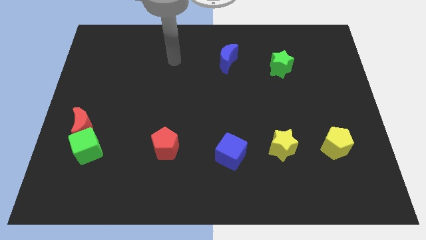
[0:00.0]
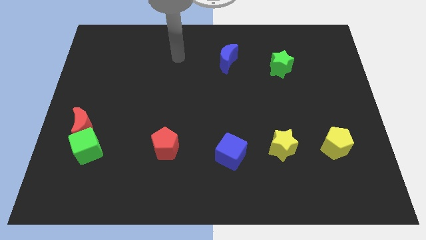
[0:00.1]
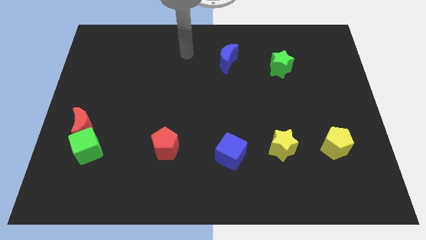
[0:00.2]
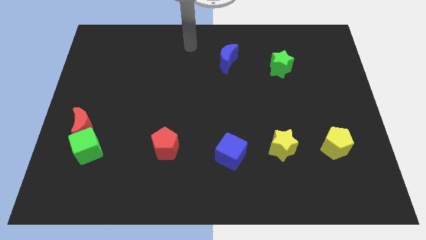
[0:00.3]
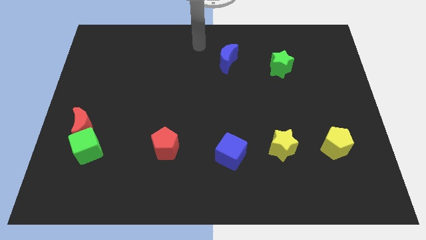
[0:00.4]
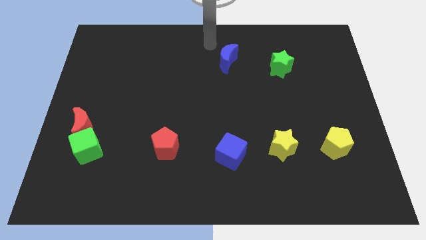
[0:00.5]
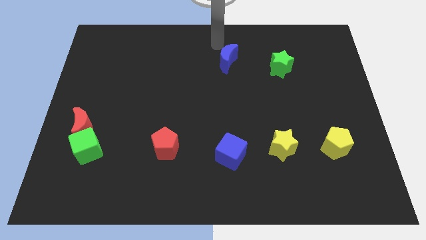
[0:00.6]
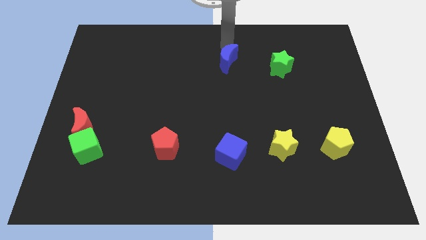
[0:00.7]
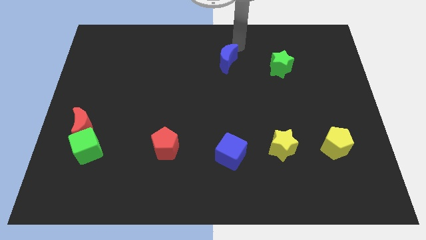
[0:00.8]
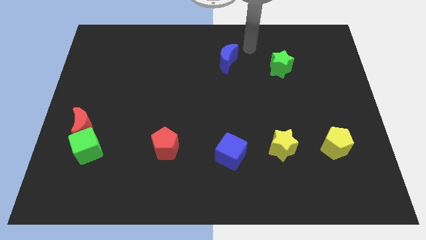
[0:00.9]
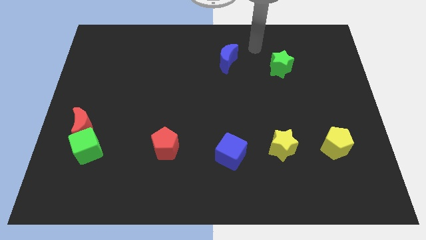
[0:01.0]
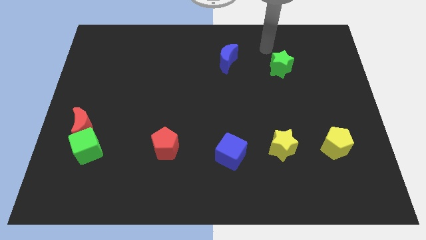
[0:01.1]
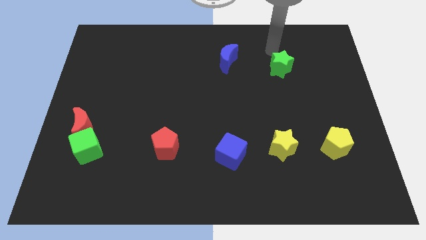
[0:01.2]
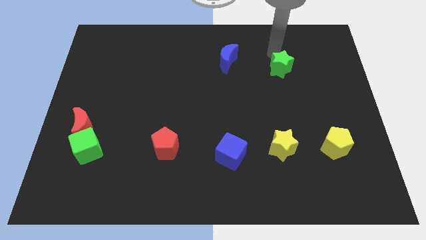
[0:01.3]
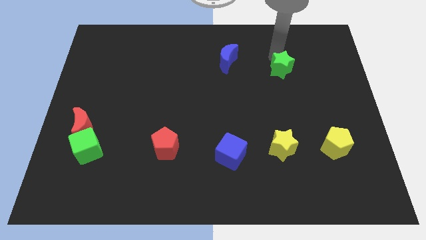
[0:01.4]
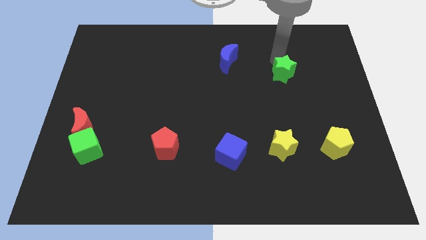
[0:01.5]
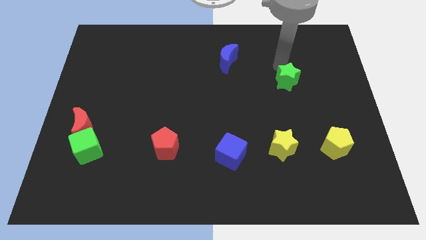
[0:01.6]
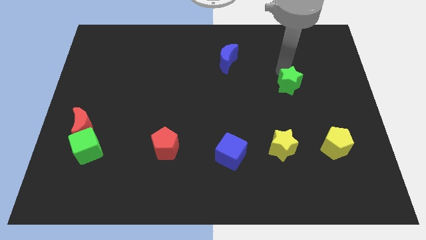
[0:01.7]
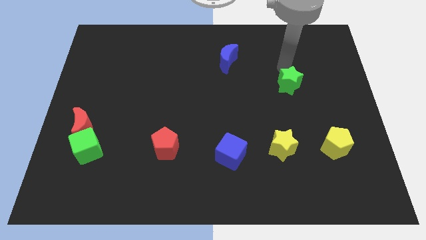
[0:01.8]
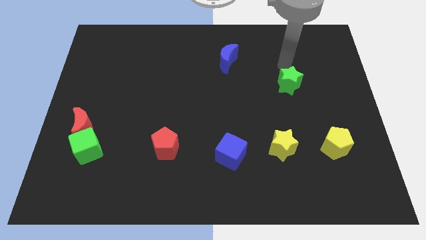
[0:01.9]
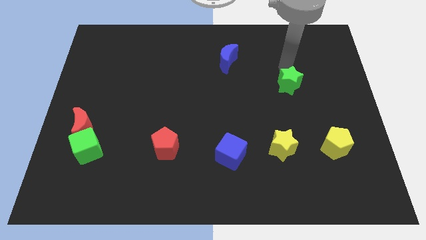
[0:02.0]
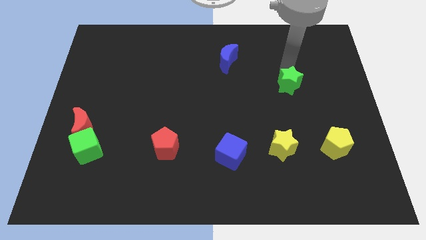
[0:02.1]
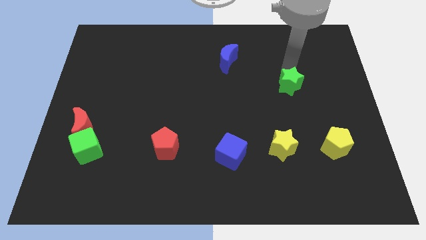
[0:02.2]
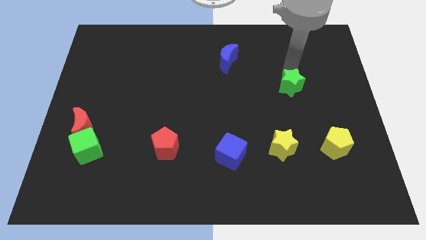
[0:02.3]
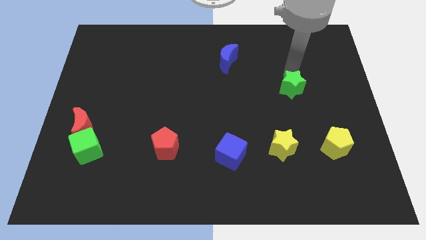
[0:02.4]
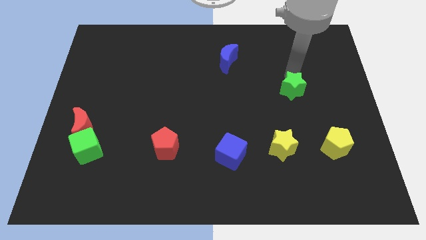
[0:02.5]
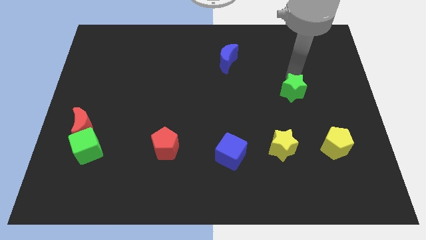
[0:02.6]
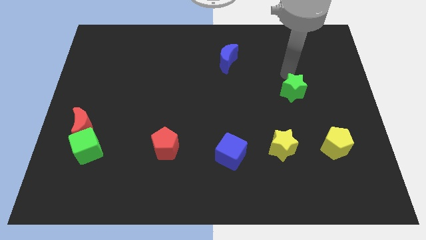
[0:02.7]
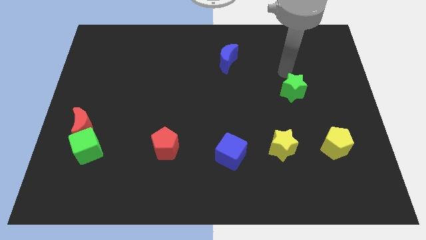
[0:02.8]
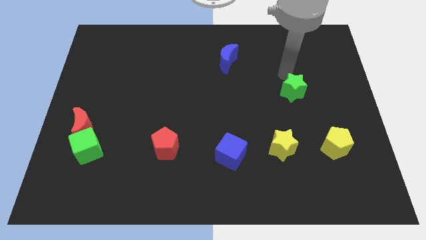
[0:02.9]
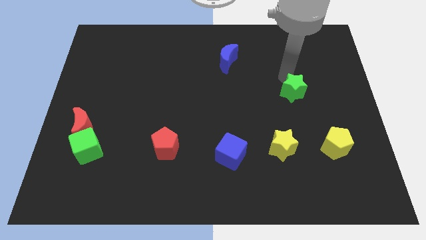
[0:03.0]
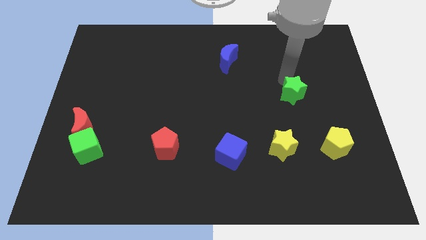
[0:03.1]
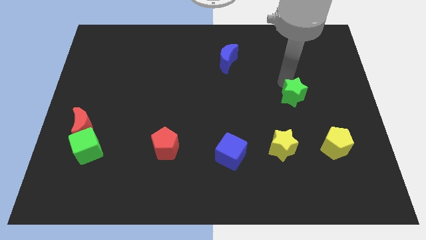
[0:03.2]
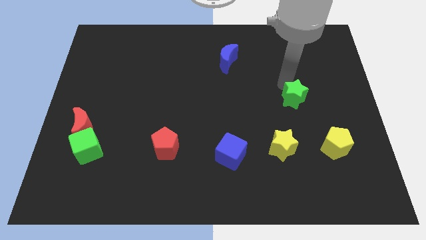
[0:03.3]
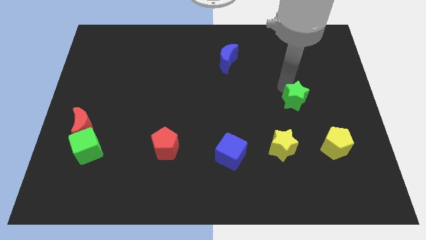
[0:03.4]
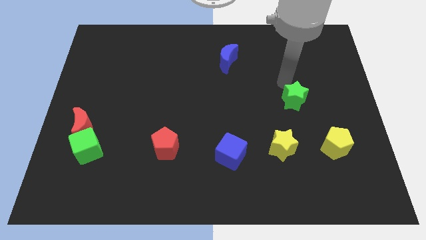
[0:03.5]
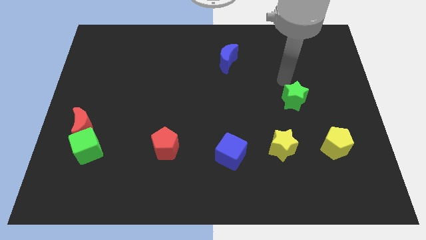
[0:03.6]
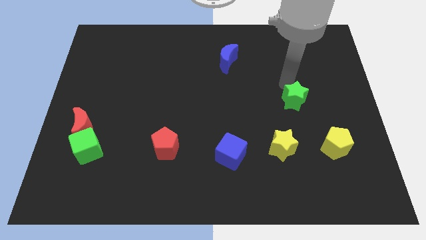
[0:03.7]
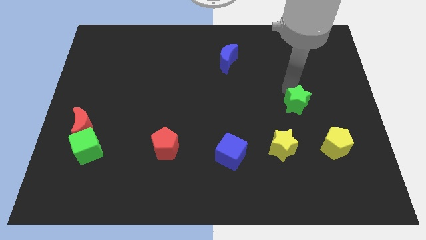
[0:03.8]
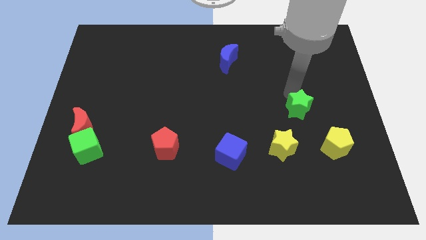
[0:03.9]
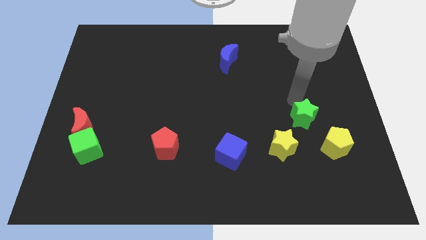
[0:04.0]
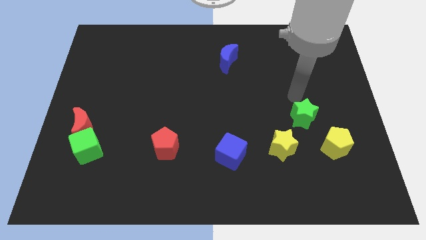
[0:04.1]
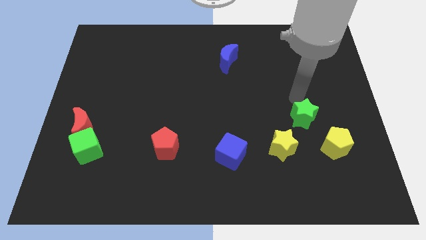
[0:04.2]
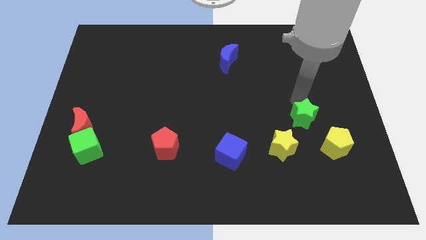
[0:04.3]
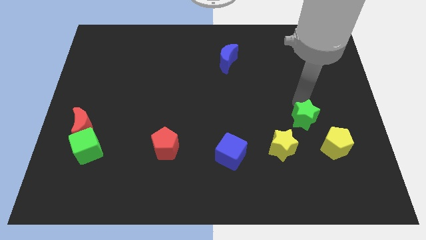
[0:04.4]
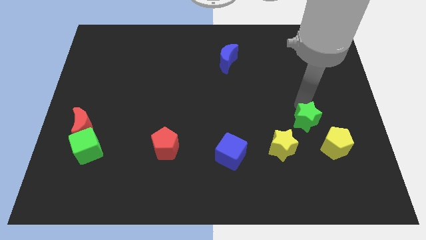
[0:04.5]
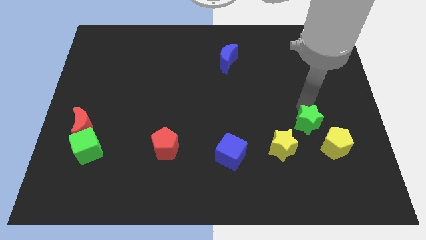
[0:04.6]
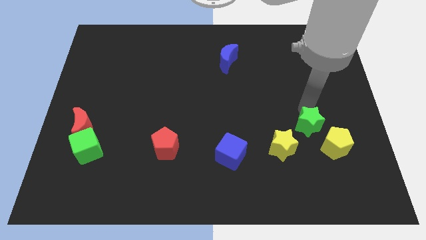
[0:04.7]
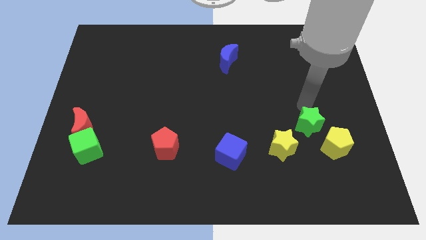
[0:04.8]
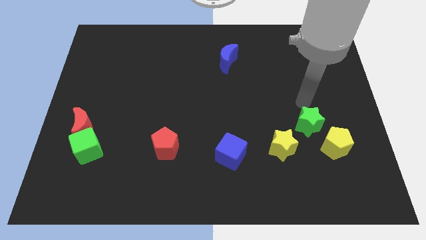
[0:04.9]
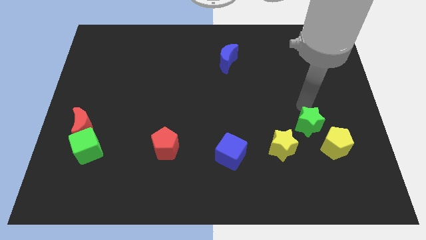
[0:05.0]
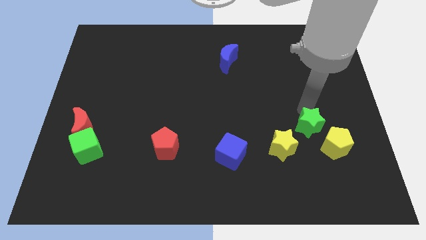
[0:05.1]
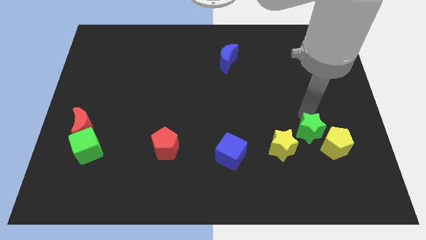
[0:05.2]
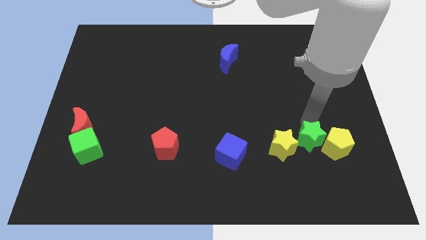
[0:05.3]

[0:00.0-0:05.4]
slide the green star down

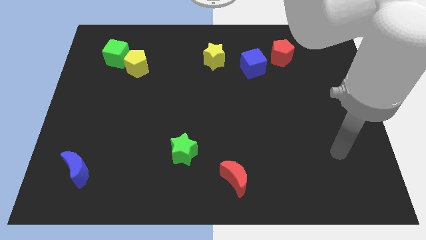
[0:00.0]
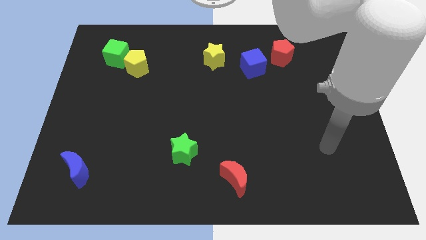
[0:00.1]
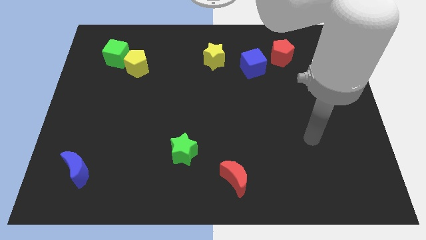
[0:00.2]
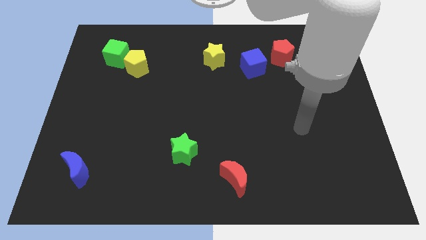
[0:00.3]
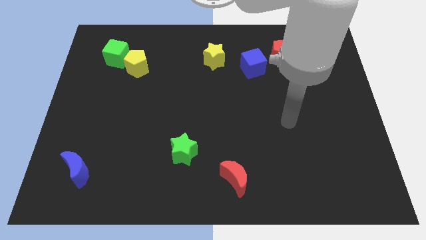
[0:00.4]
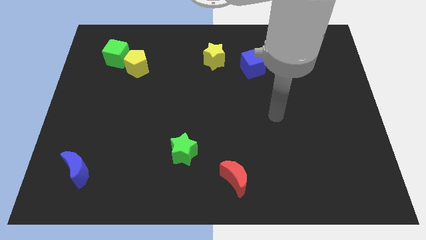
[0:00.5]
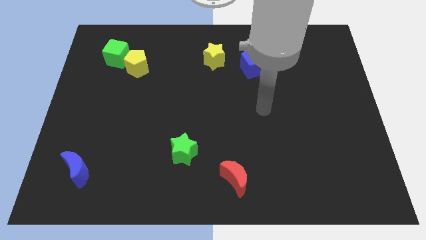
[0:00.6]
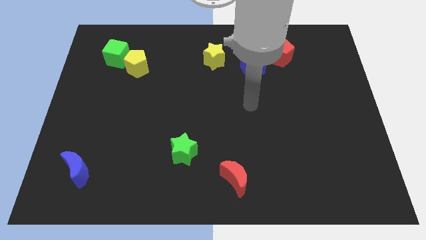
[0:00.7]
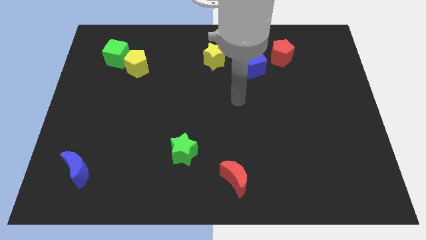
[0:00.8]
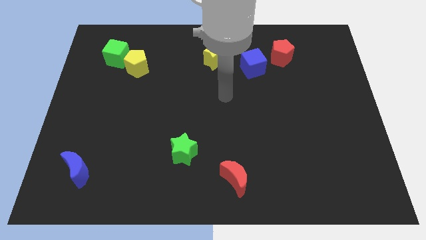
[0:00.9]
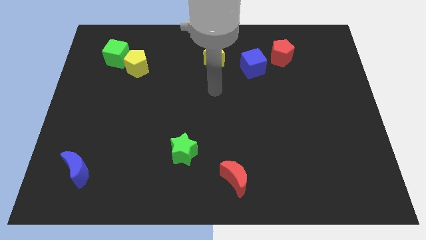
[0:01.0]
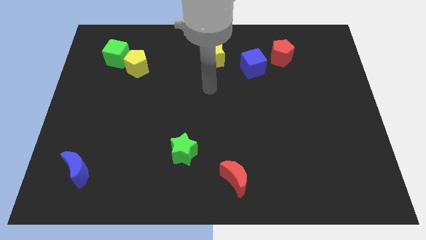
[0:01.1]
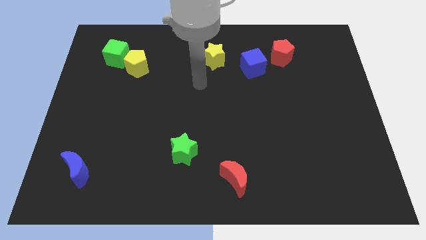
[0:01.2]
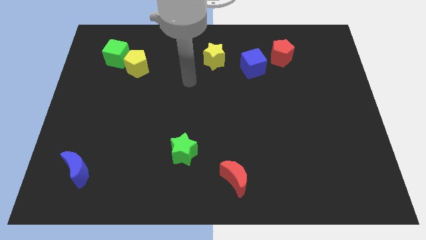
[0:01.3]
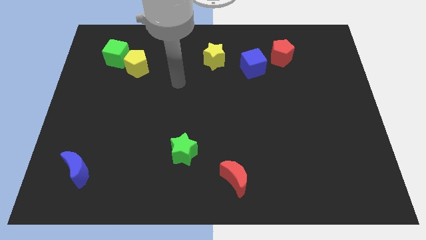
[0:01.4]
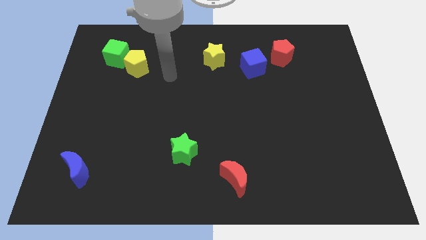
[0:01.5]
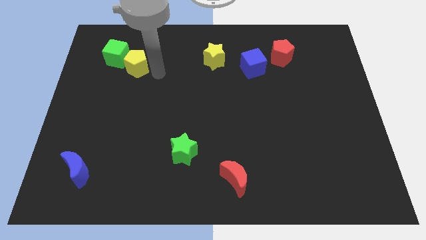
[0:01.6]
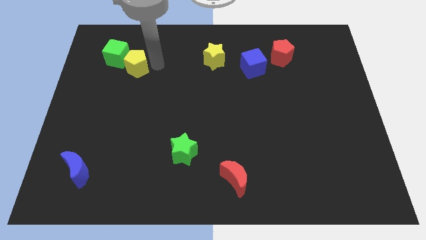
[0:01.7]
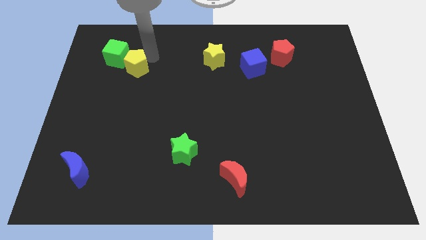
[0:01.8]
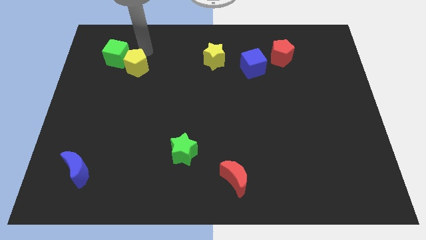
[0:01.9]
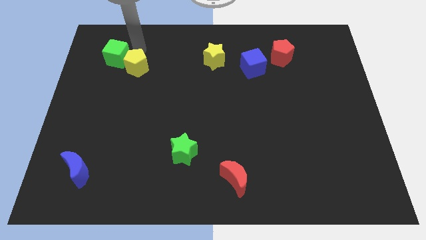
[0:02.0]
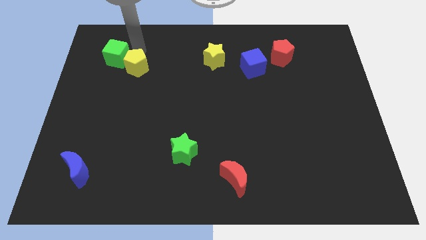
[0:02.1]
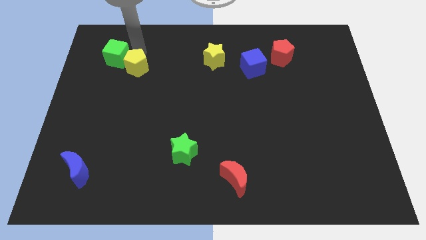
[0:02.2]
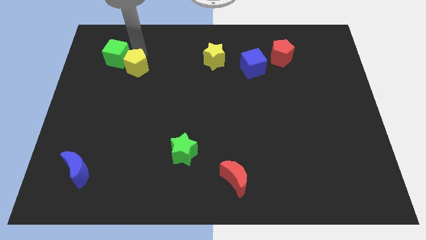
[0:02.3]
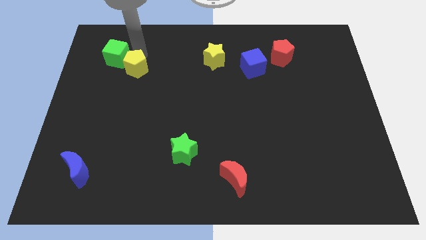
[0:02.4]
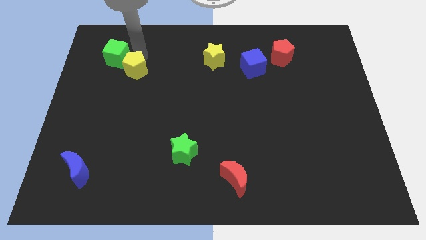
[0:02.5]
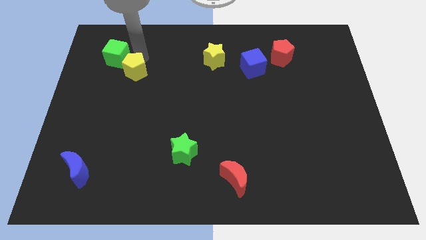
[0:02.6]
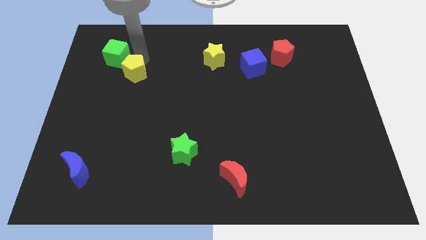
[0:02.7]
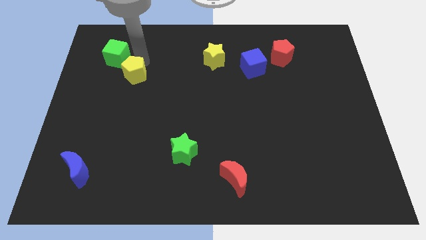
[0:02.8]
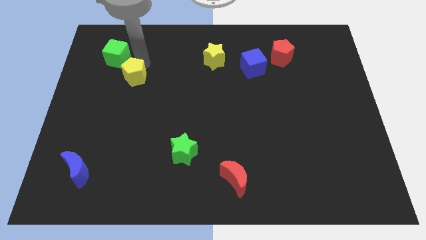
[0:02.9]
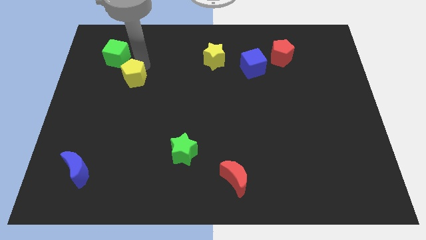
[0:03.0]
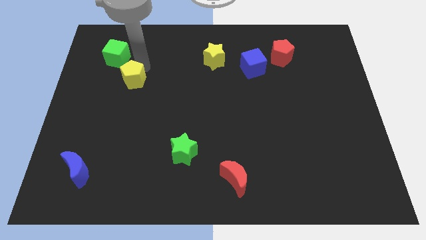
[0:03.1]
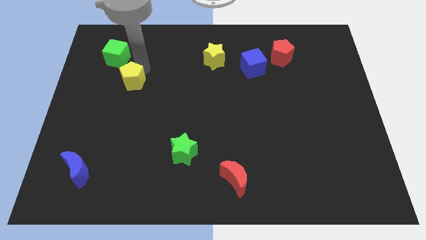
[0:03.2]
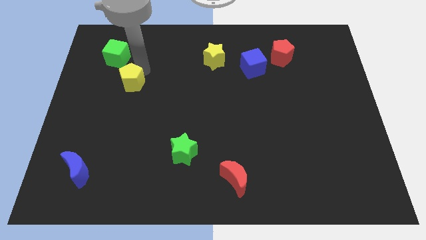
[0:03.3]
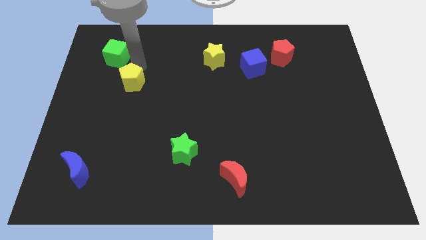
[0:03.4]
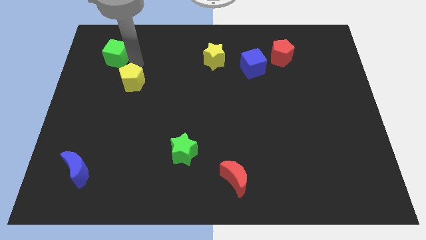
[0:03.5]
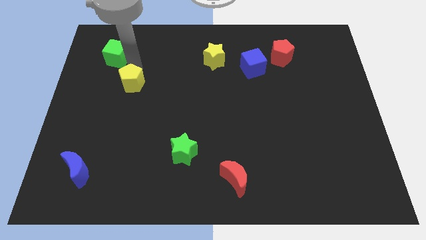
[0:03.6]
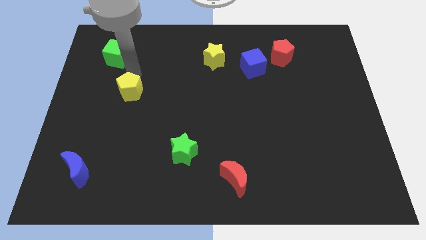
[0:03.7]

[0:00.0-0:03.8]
slightly slide the yellow pentagon down
